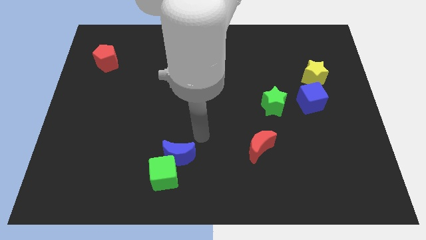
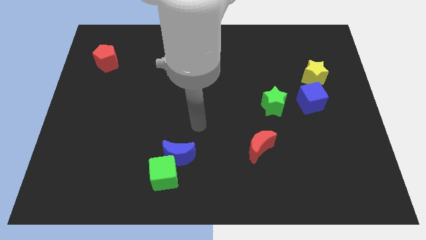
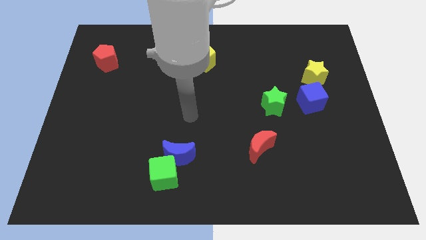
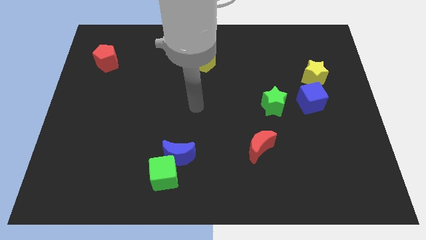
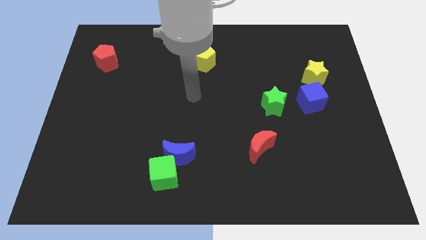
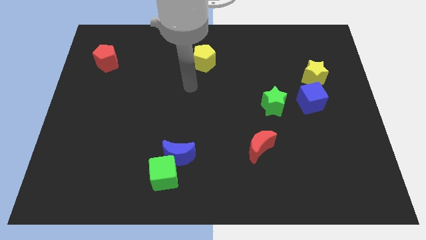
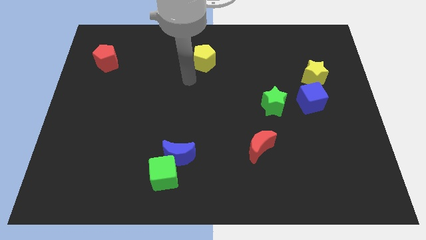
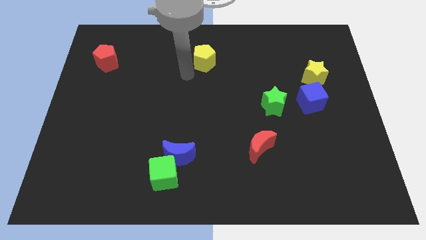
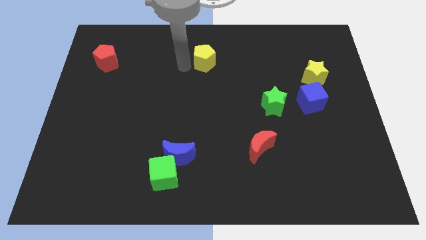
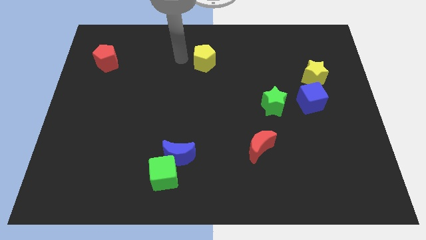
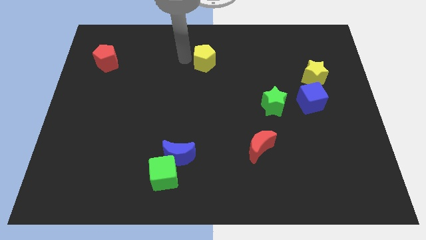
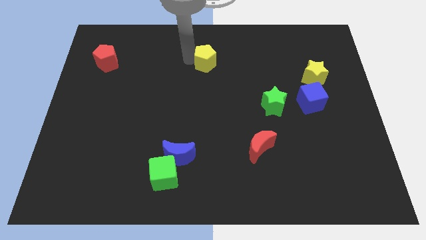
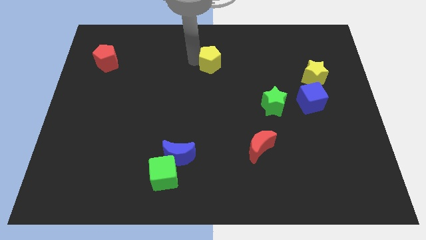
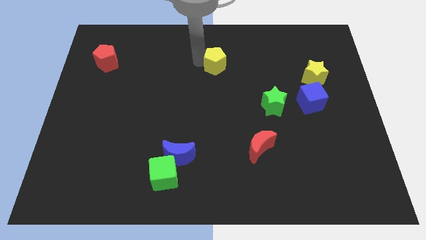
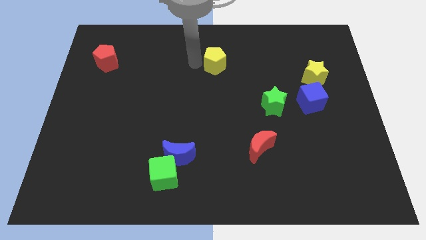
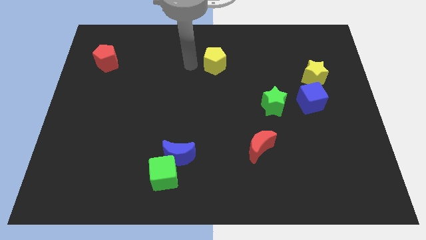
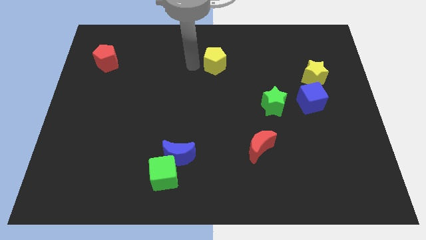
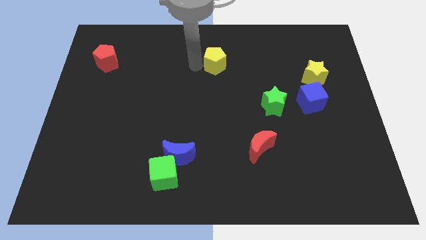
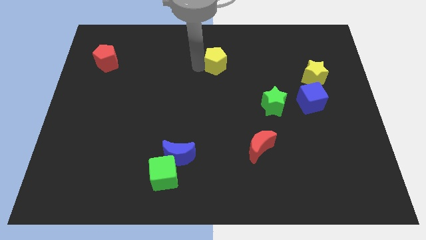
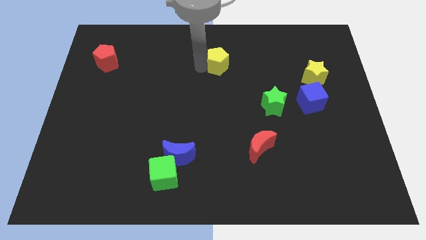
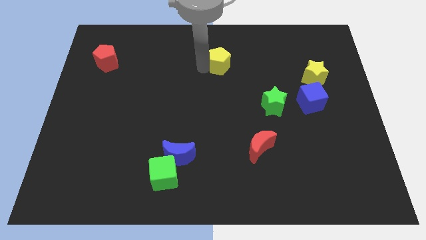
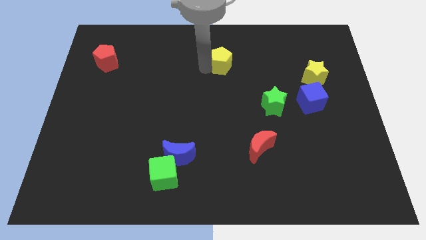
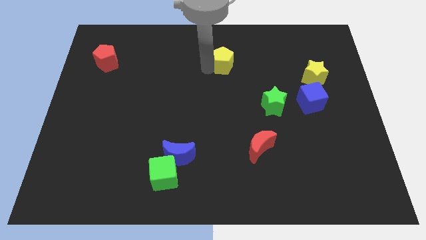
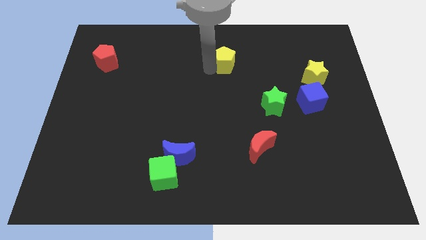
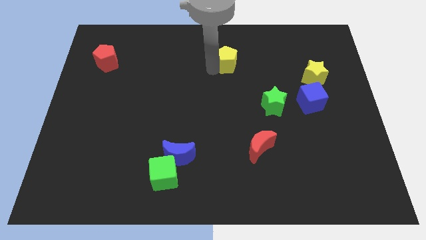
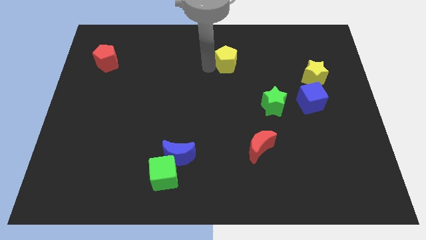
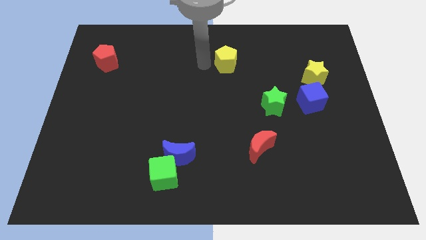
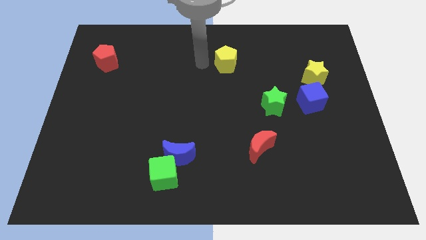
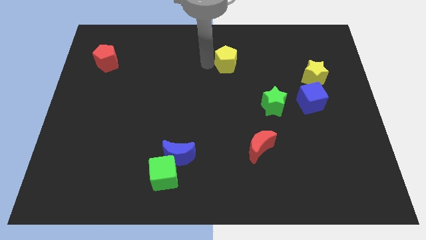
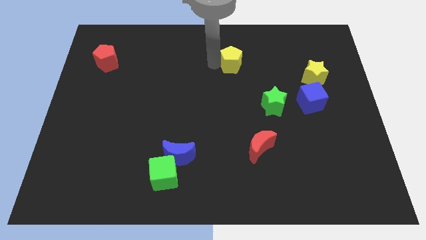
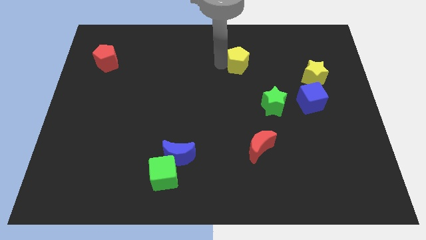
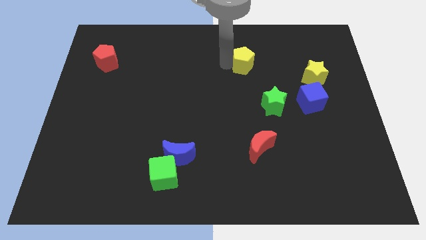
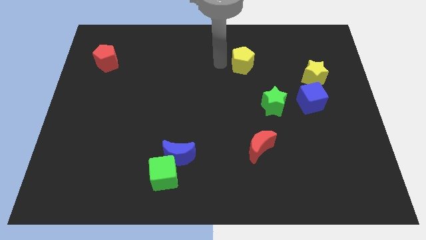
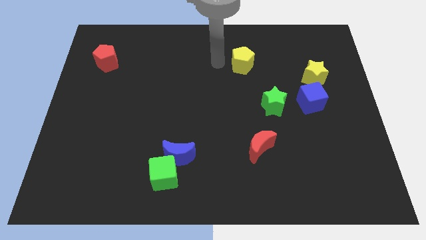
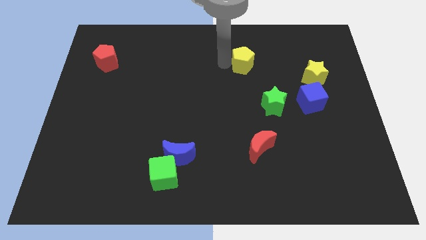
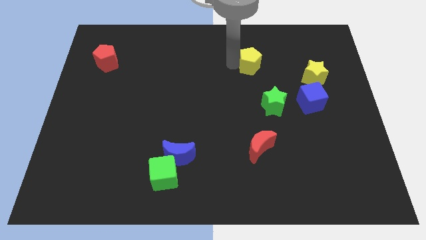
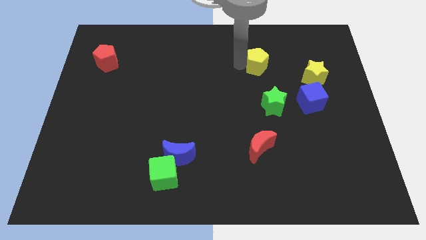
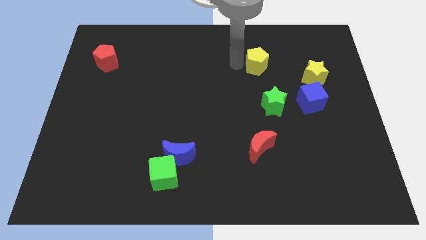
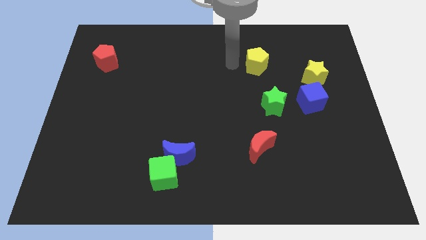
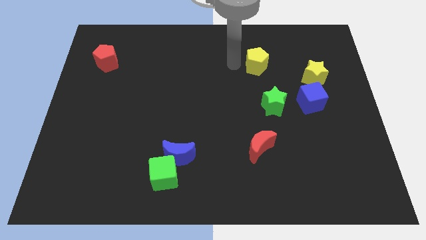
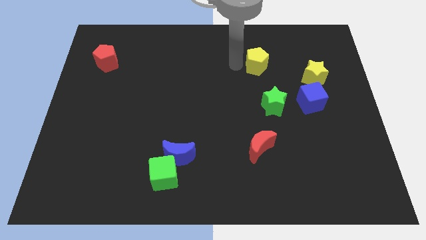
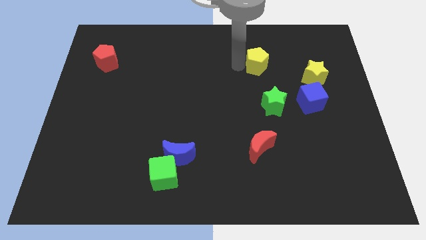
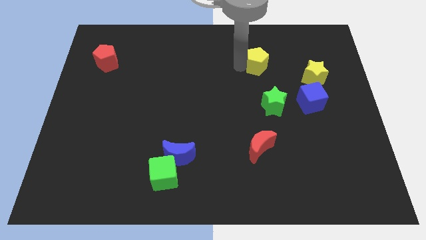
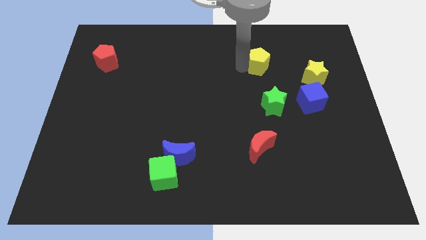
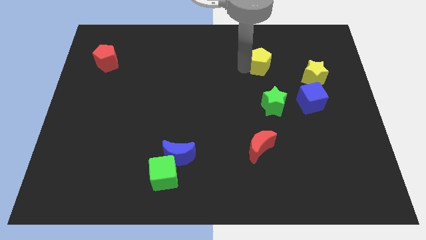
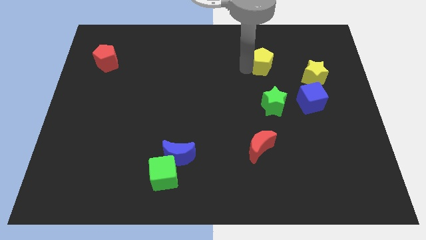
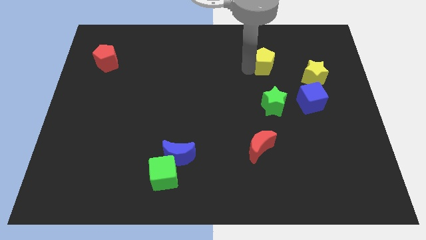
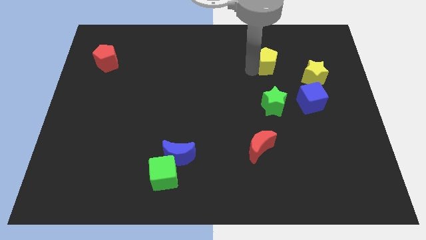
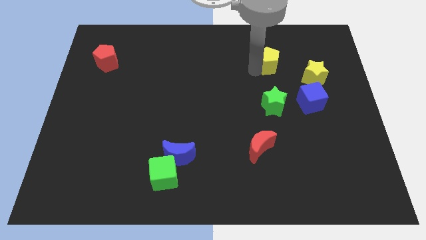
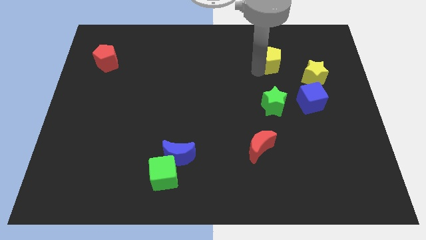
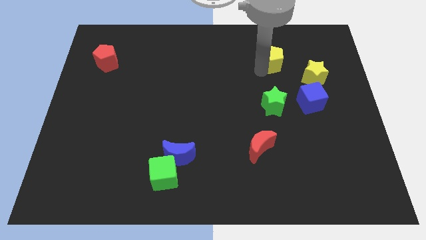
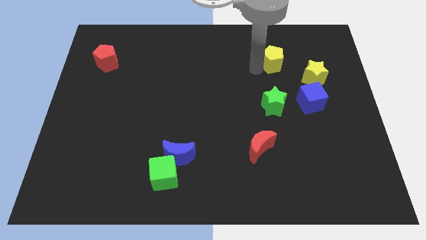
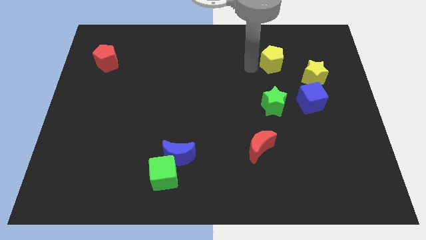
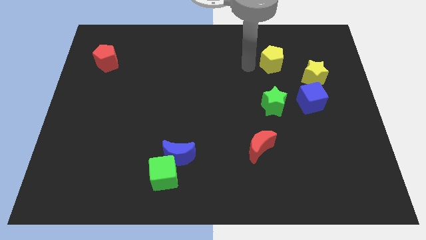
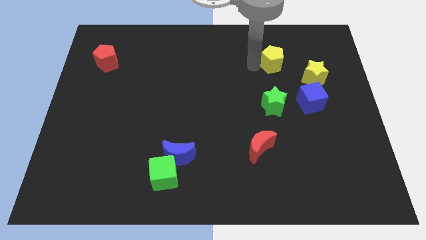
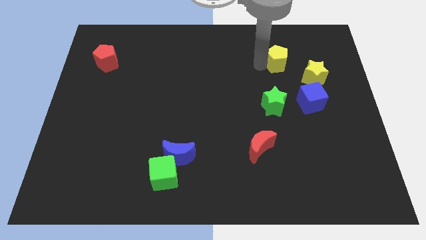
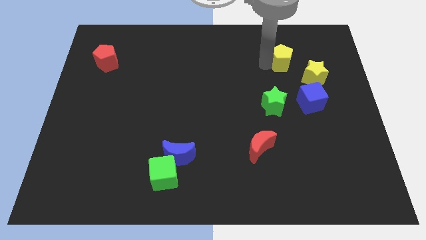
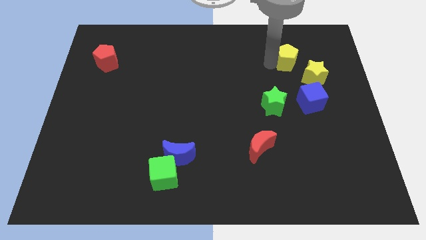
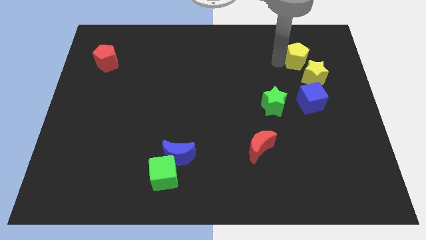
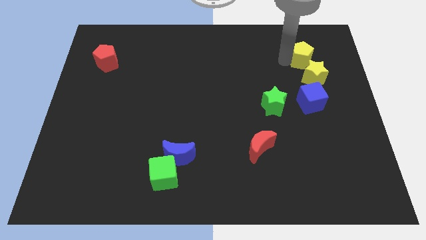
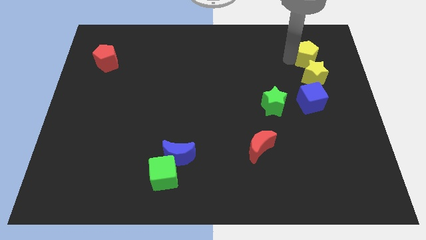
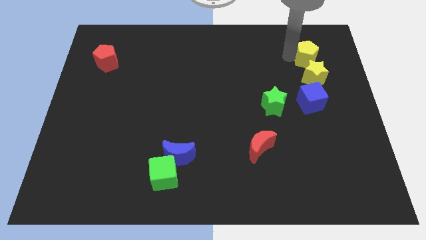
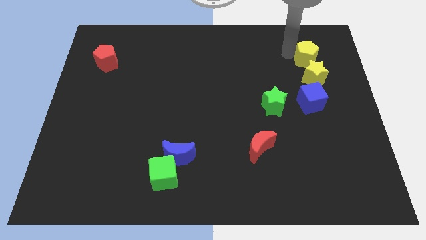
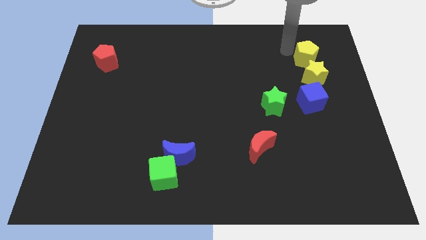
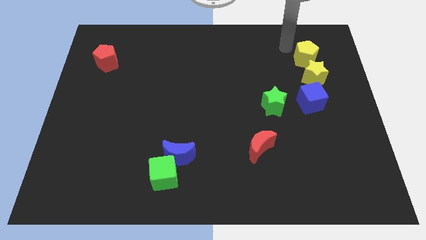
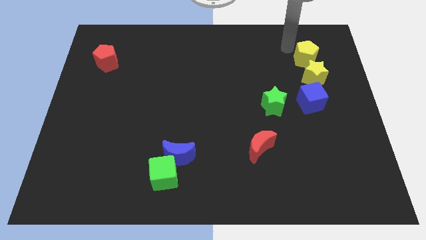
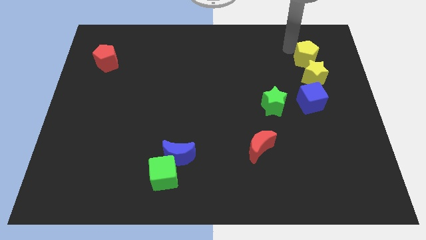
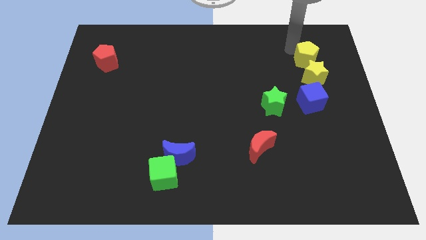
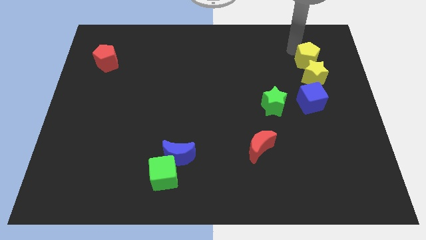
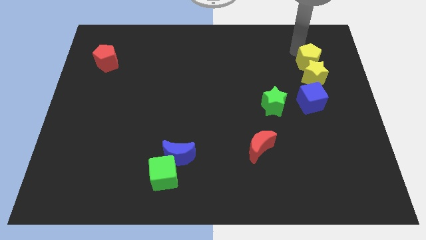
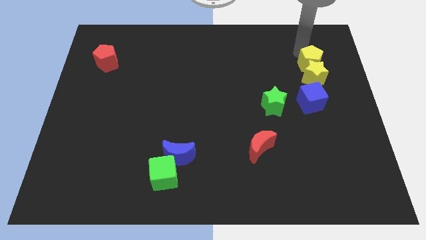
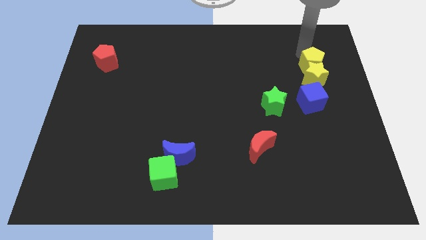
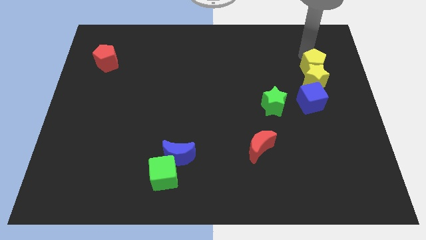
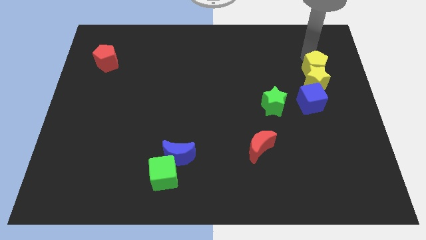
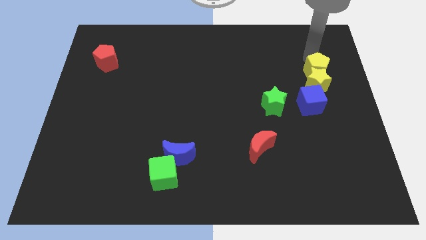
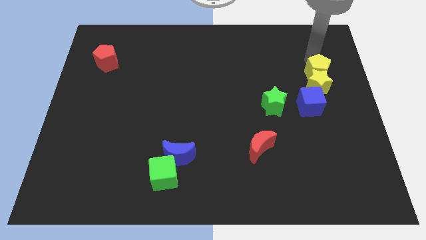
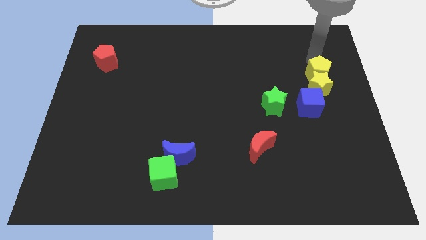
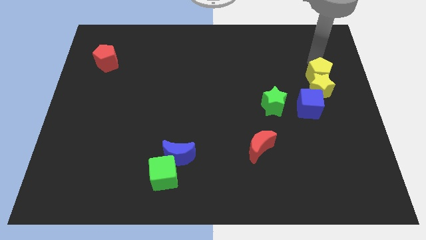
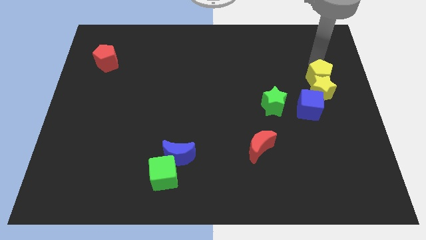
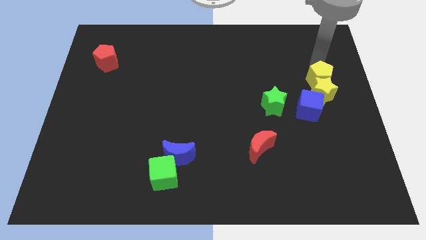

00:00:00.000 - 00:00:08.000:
push the yellow pentagon to the right side
